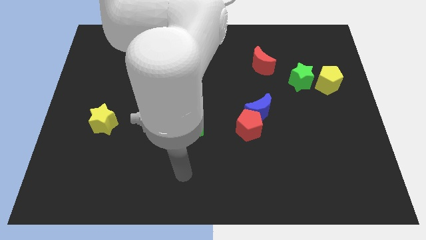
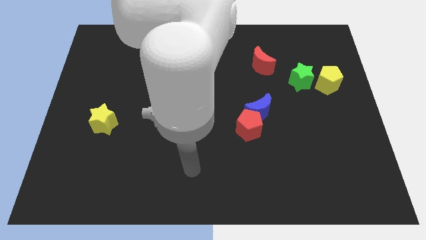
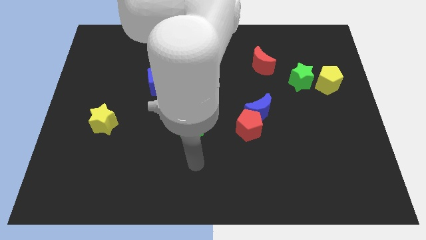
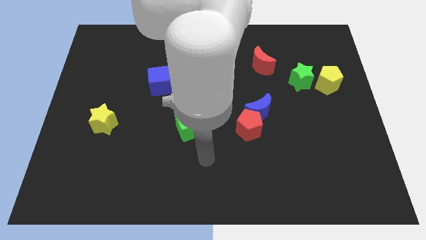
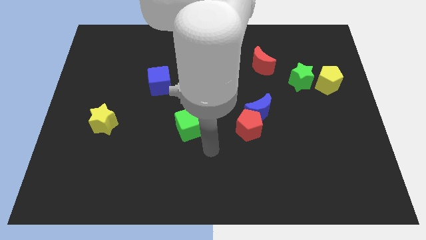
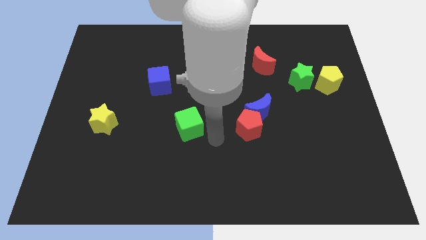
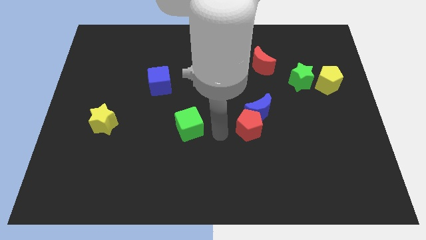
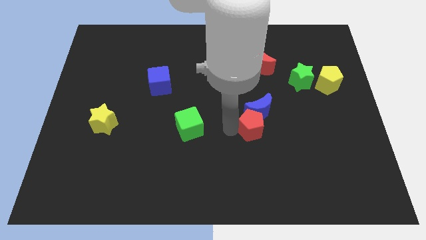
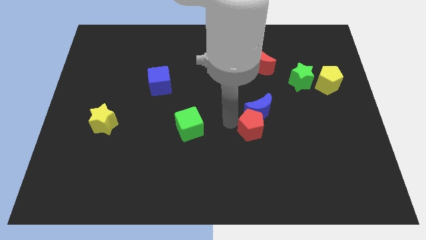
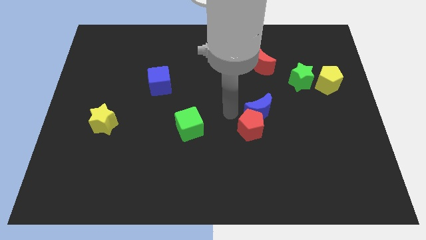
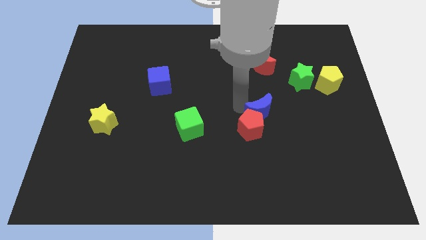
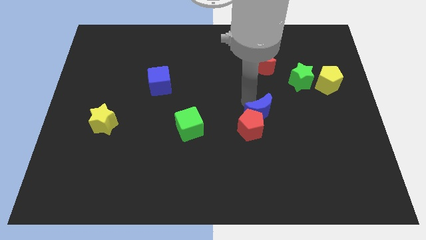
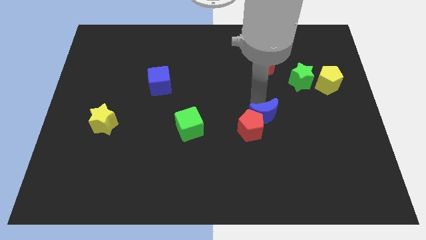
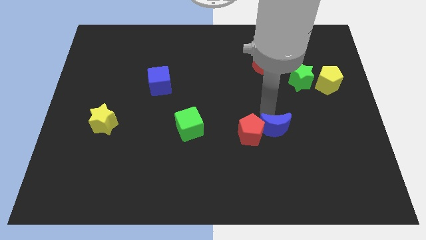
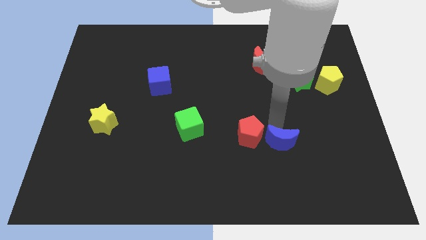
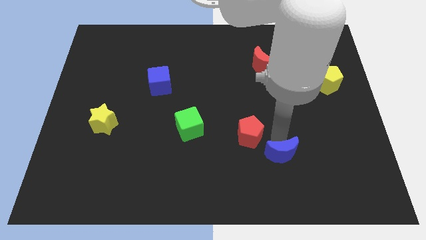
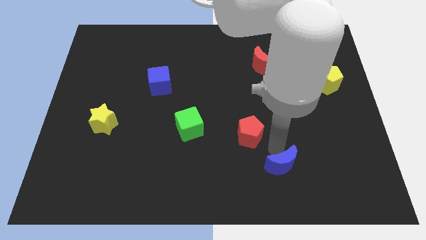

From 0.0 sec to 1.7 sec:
separate the red pentagon from the blue moon

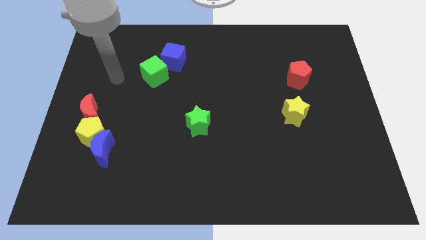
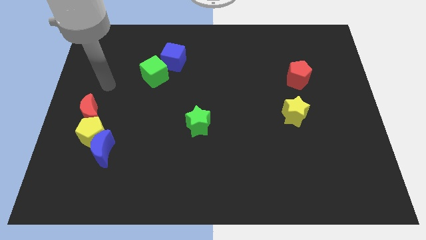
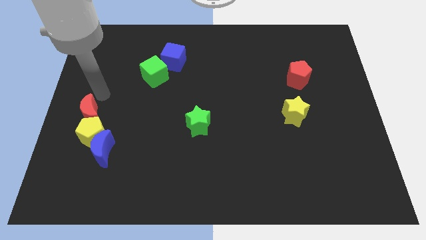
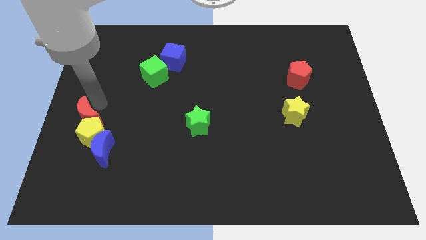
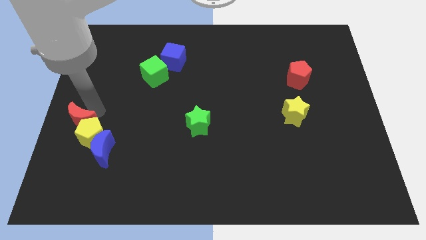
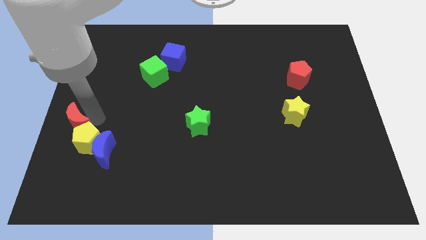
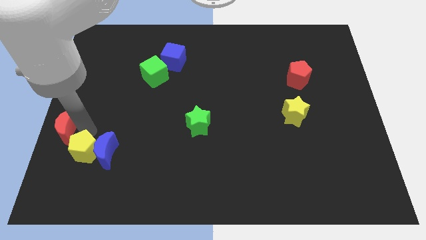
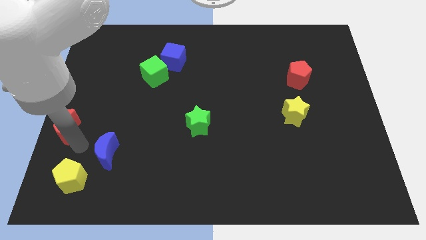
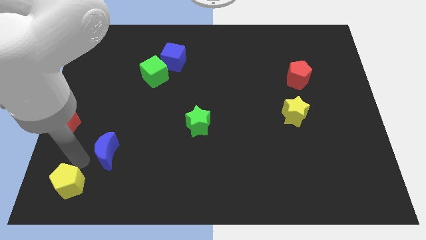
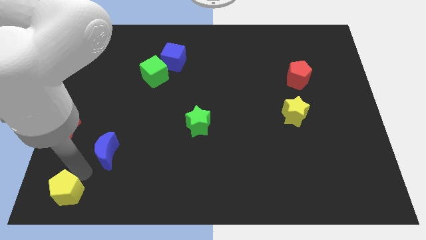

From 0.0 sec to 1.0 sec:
pull the blue moon apart from the yellow pentagon

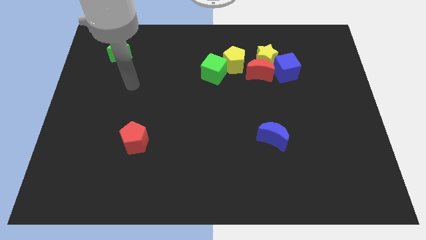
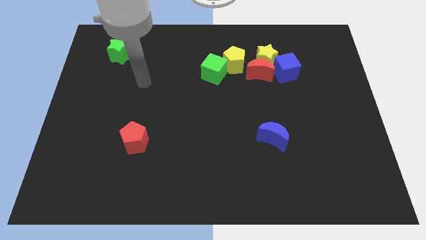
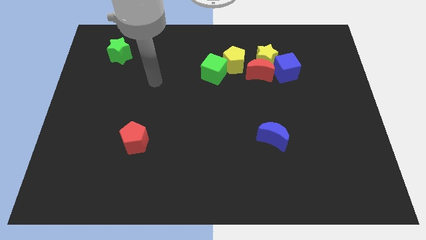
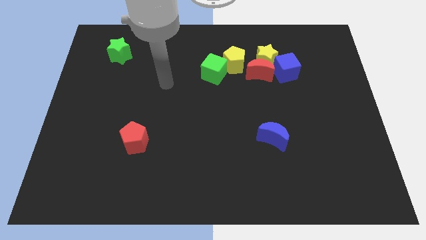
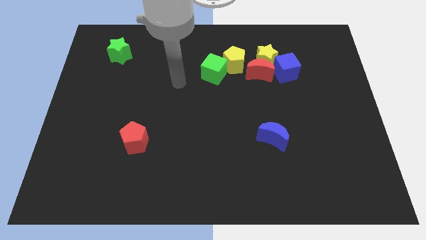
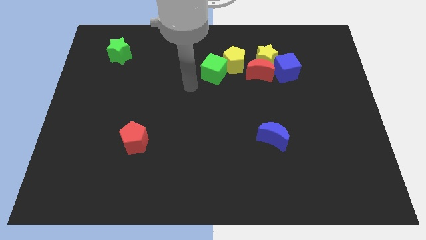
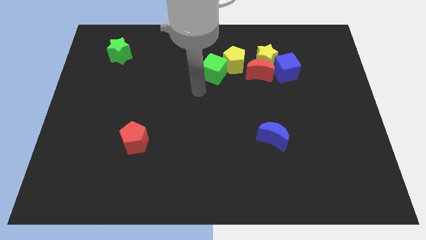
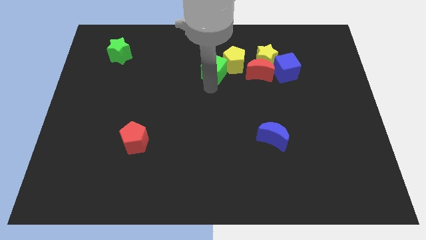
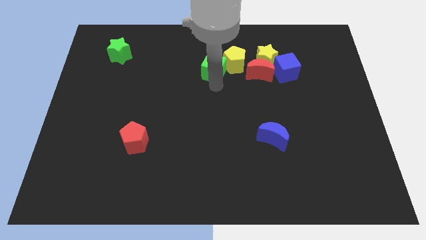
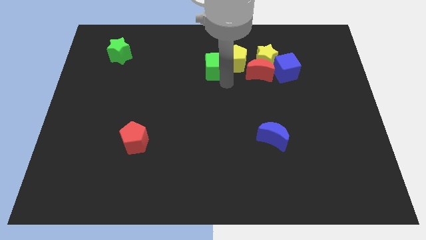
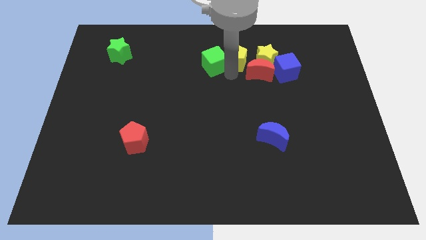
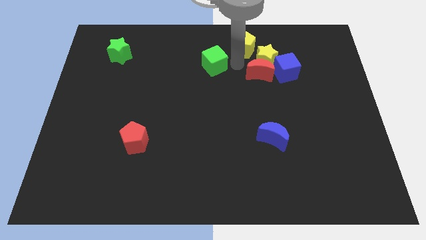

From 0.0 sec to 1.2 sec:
move the green cube away from the yellow pentagon

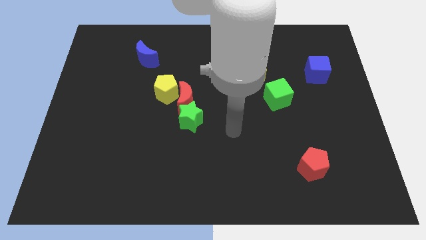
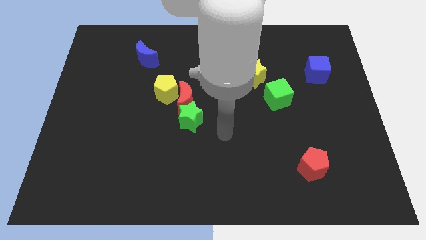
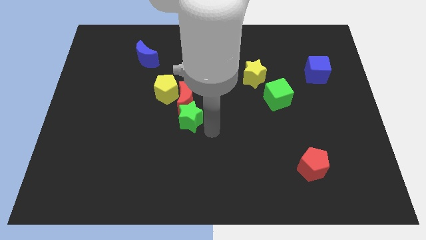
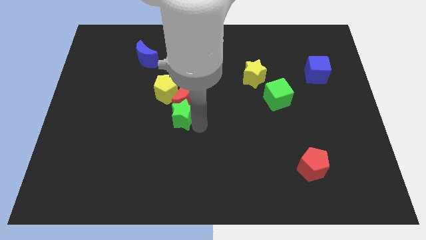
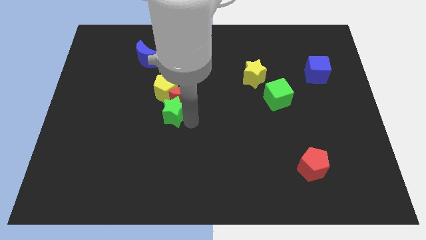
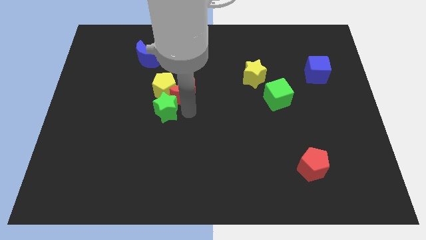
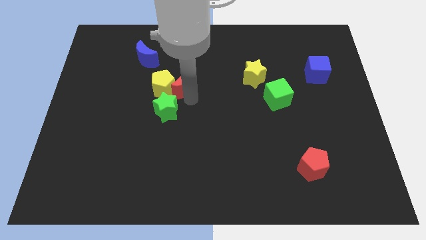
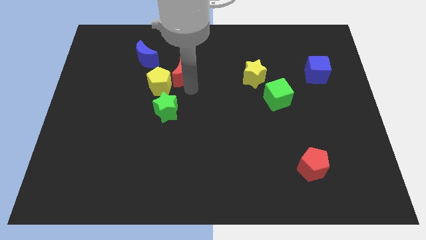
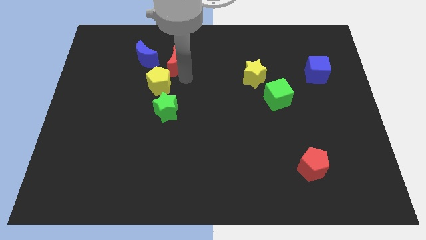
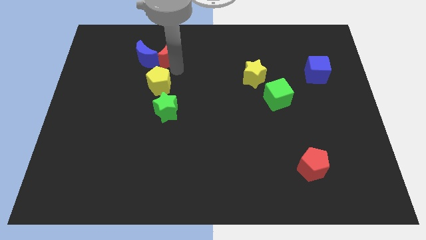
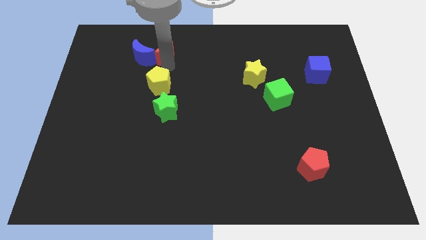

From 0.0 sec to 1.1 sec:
separate the yellow pentagon from the red moon

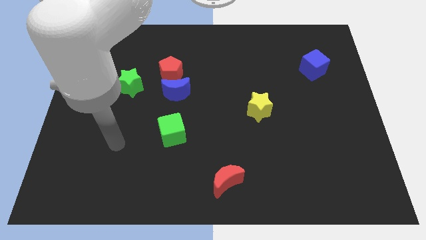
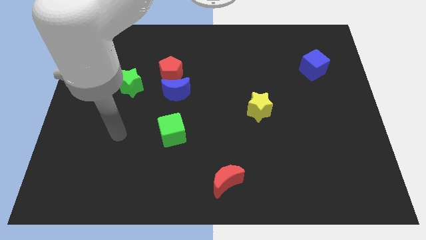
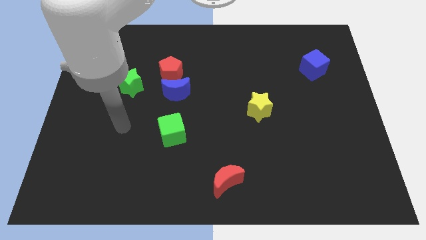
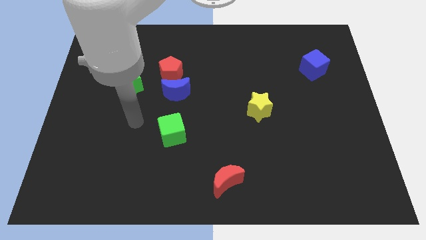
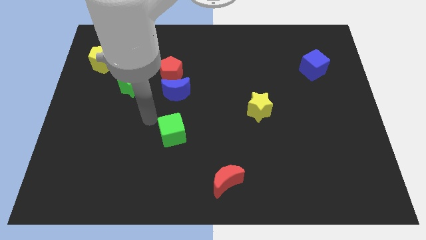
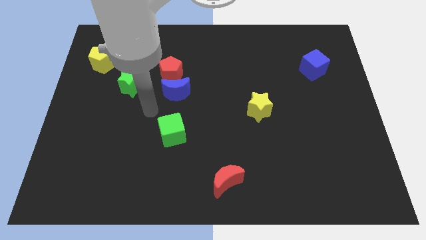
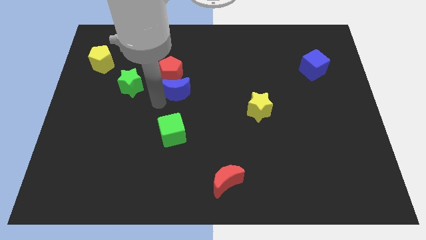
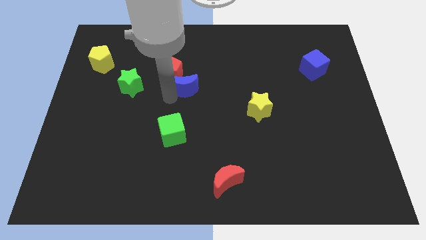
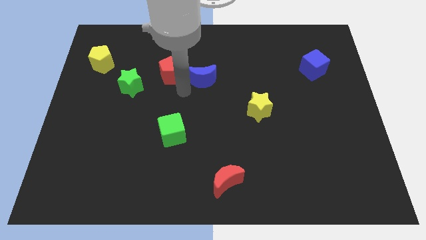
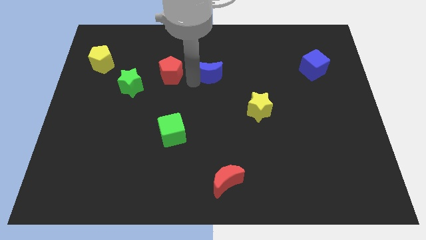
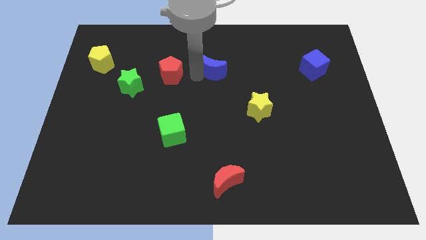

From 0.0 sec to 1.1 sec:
move the red pentagon away from the blue moon

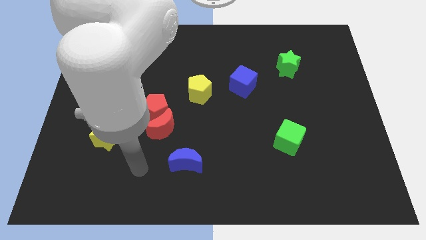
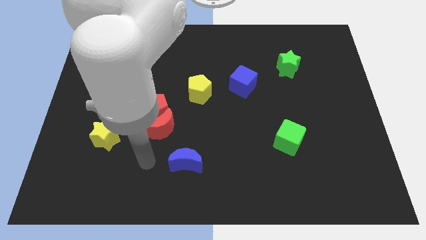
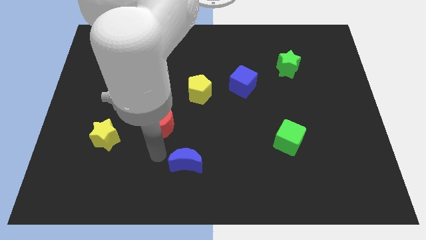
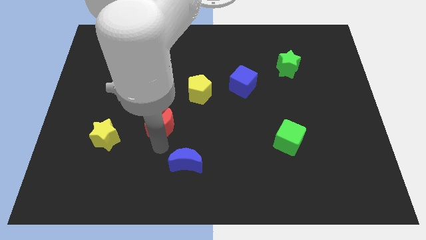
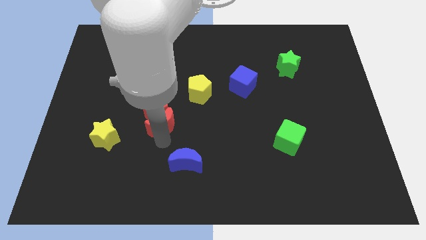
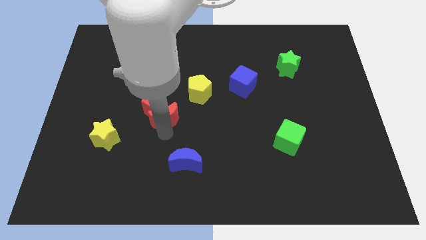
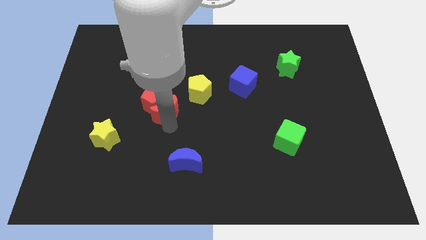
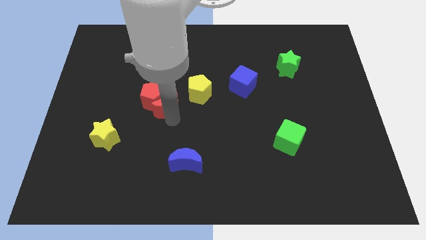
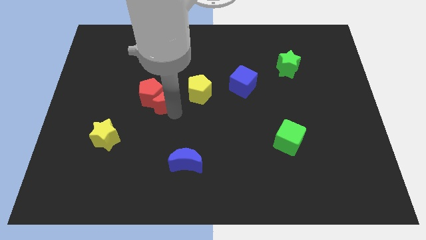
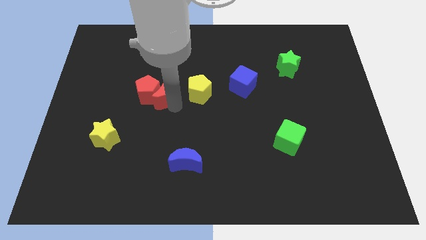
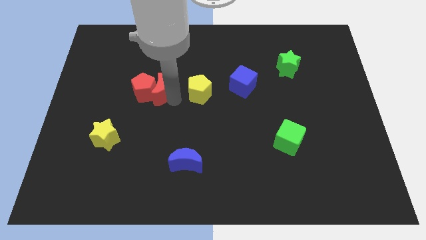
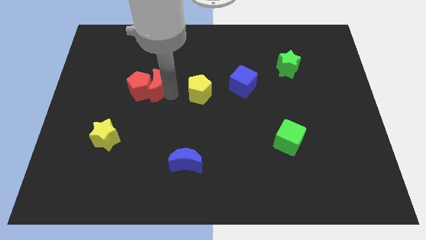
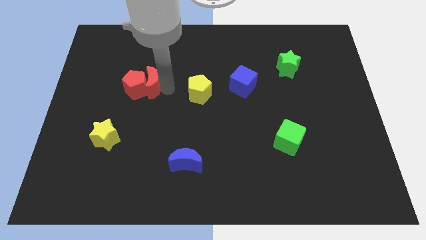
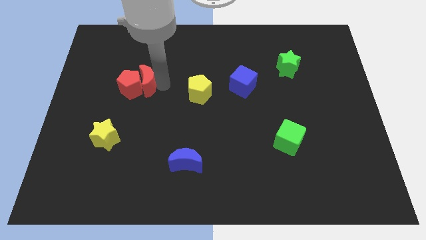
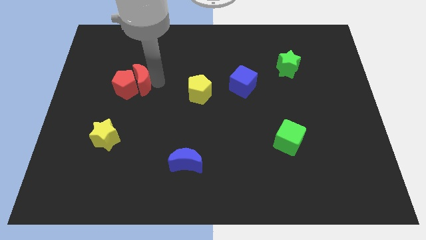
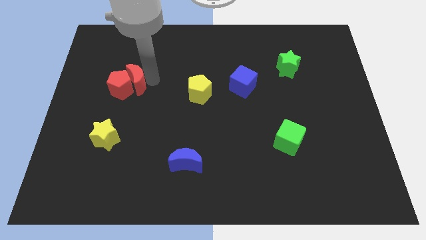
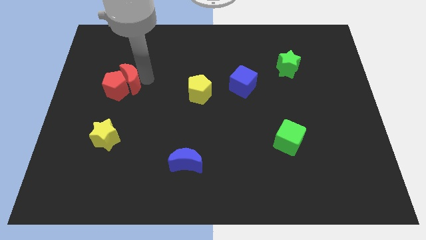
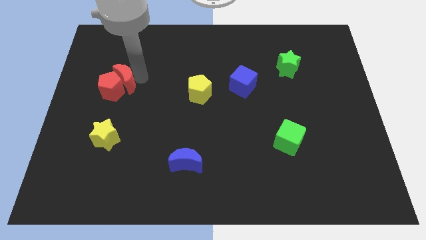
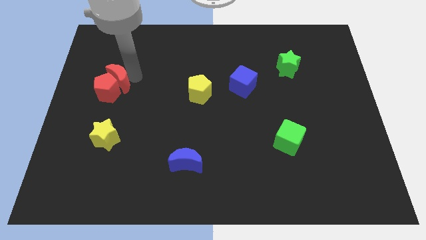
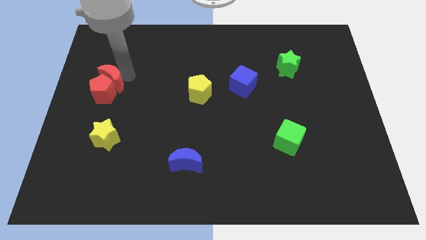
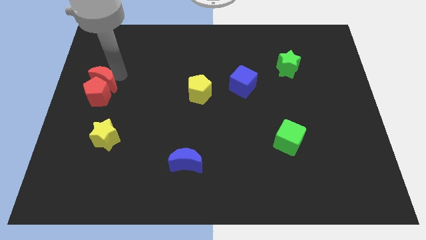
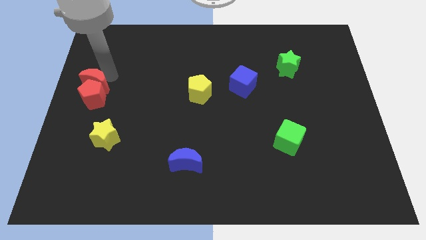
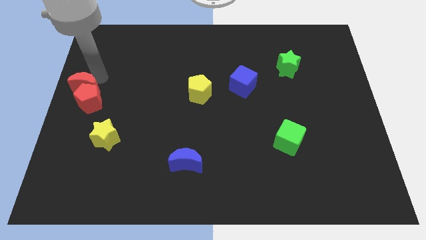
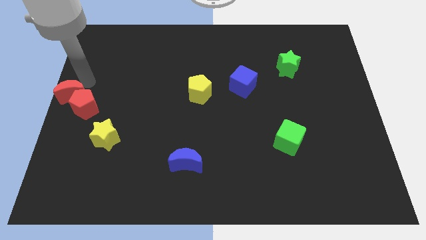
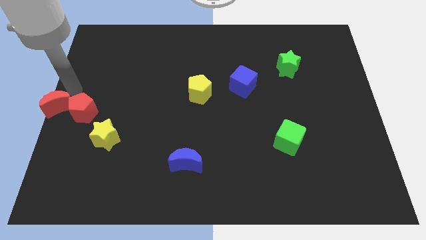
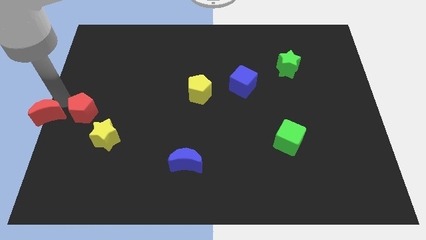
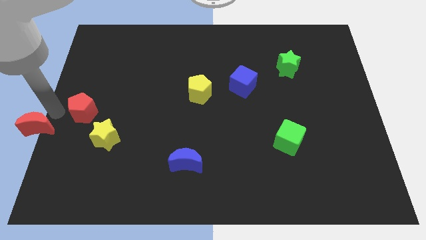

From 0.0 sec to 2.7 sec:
pull the red pentagon apart from the red moon

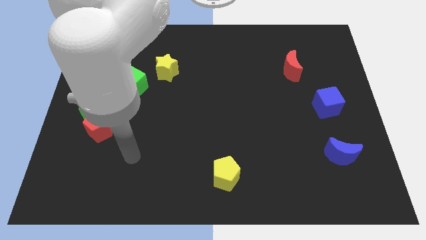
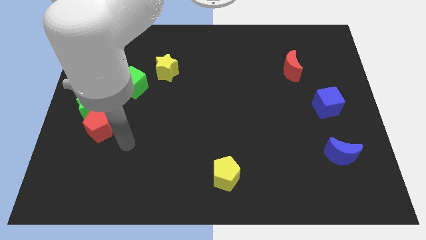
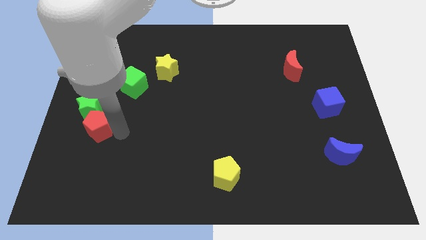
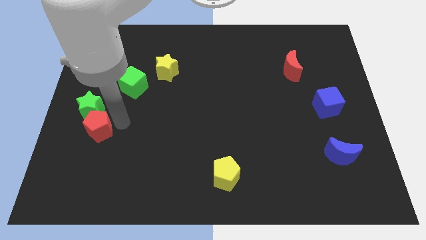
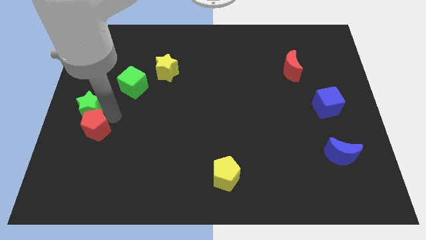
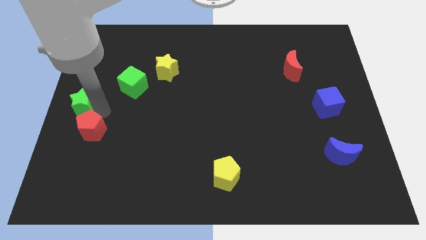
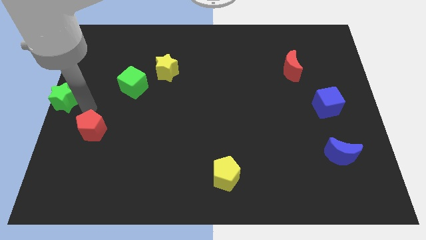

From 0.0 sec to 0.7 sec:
pull the red pentagon apart from the green star
